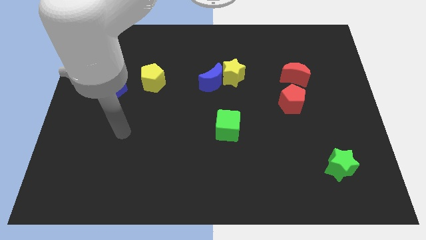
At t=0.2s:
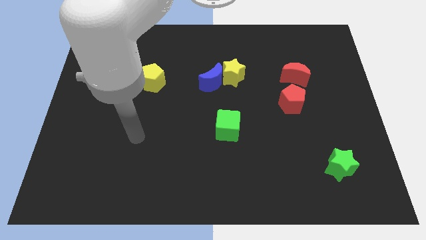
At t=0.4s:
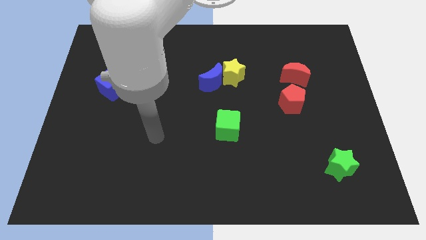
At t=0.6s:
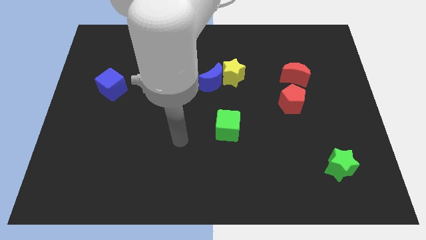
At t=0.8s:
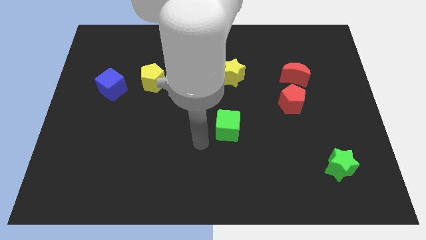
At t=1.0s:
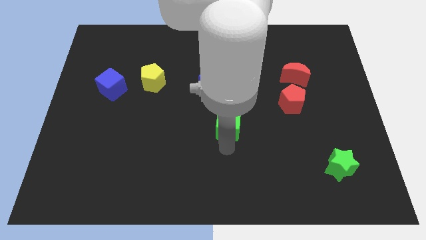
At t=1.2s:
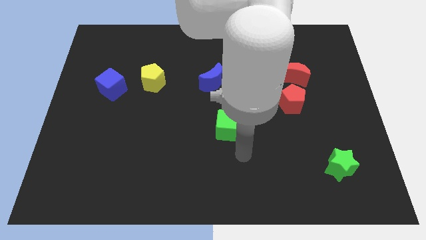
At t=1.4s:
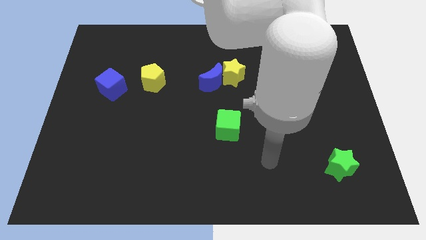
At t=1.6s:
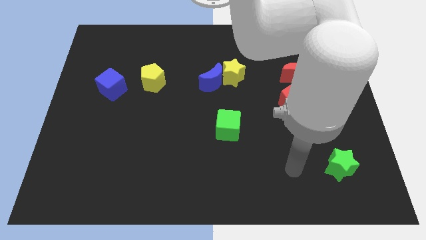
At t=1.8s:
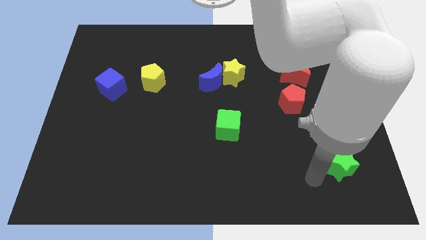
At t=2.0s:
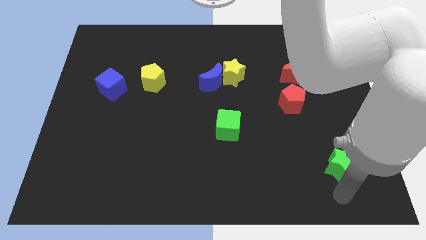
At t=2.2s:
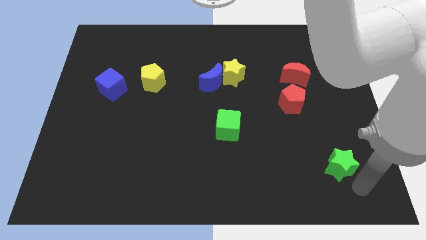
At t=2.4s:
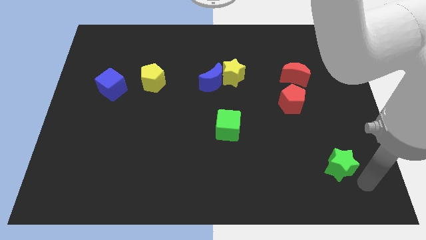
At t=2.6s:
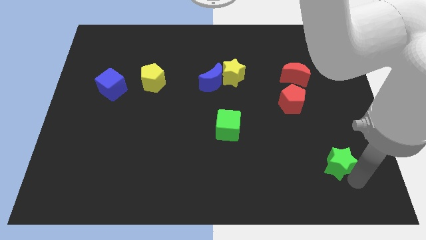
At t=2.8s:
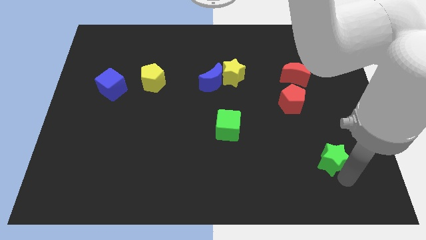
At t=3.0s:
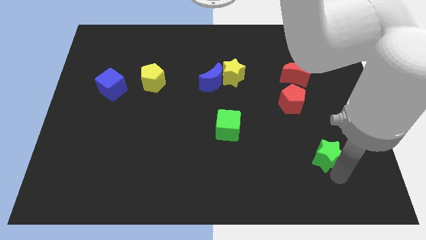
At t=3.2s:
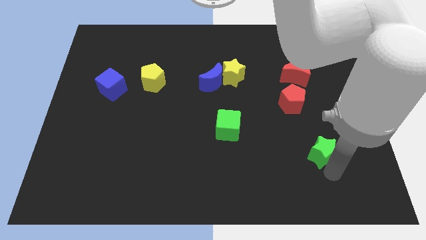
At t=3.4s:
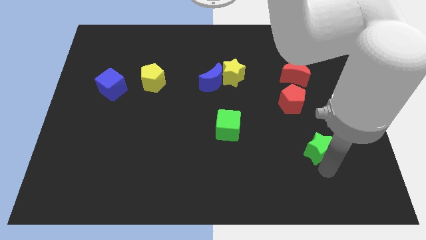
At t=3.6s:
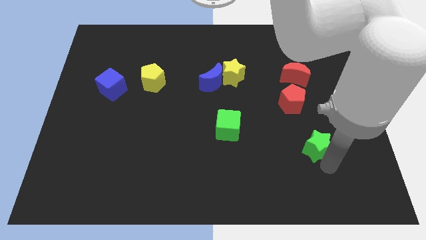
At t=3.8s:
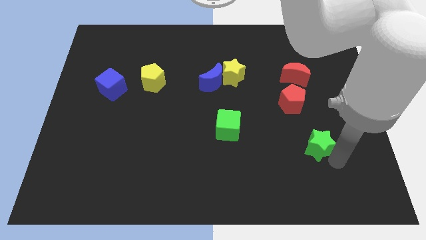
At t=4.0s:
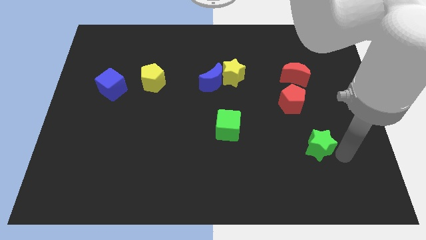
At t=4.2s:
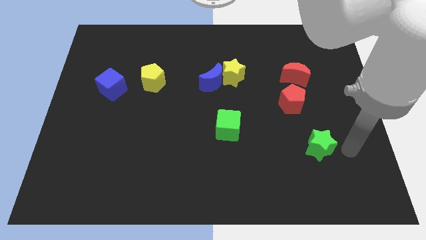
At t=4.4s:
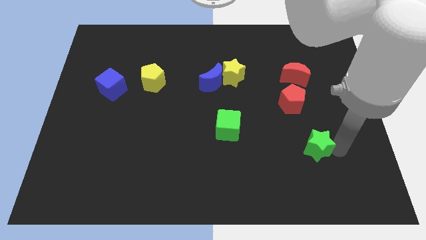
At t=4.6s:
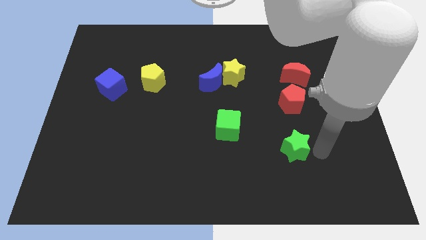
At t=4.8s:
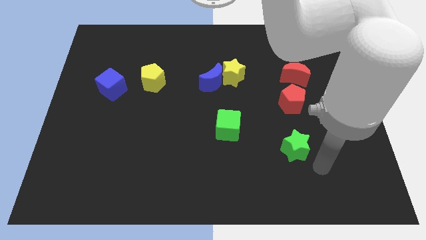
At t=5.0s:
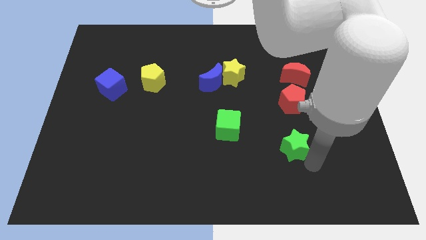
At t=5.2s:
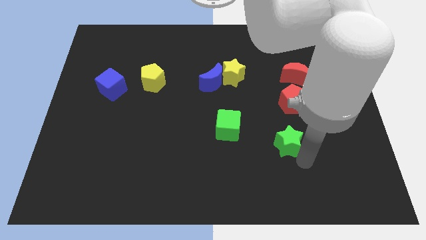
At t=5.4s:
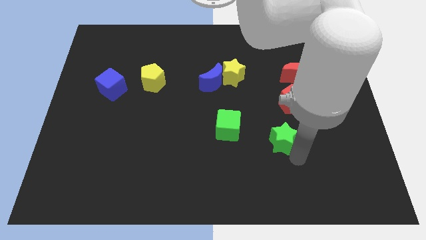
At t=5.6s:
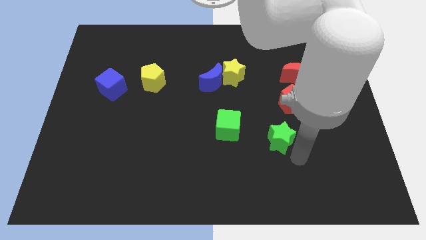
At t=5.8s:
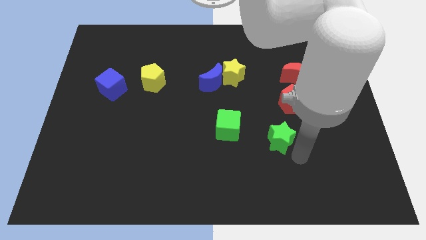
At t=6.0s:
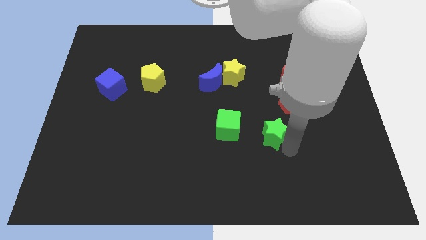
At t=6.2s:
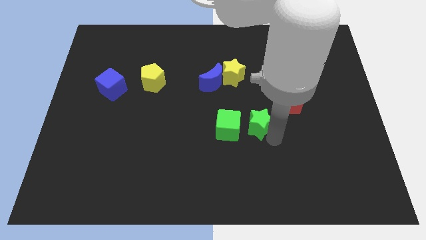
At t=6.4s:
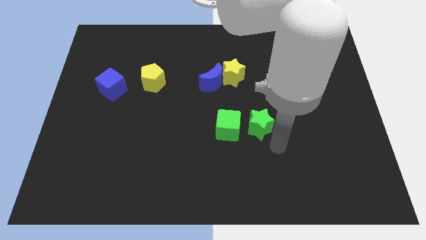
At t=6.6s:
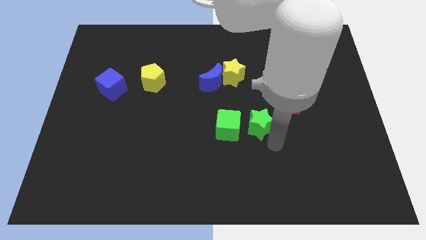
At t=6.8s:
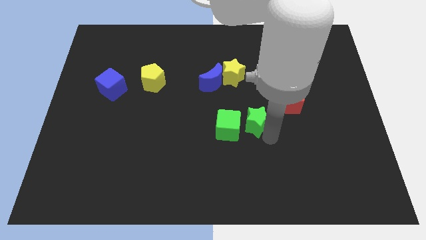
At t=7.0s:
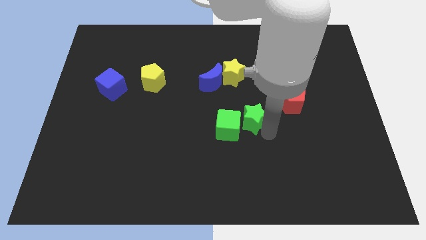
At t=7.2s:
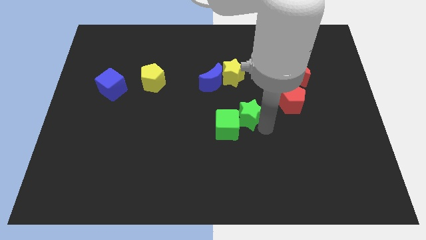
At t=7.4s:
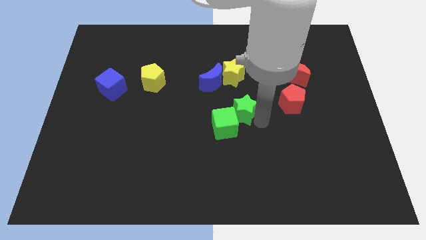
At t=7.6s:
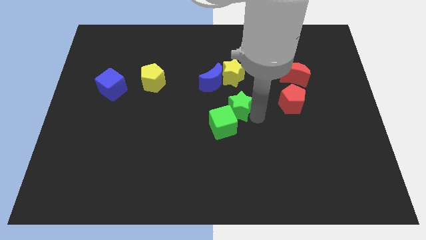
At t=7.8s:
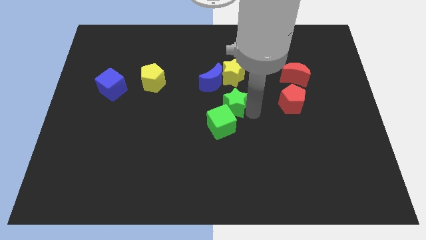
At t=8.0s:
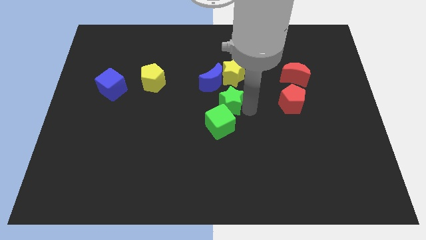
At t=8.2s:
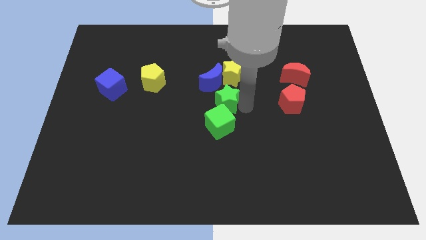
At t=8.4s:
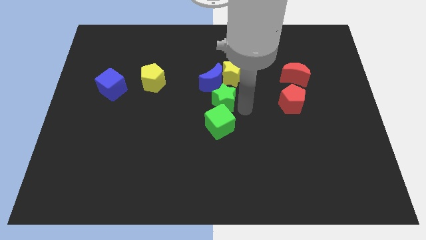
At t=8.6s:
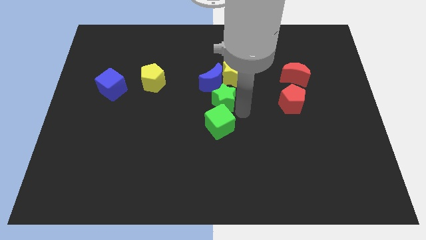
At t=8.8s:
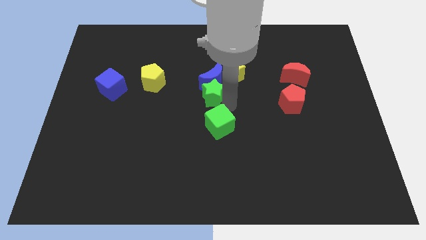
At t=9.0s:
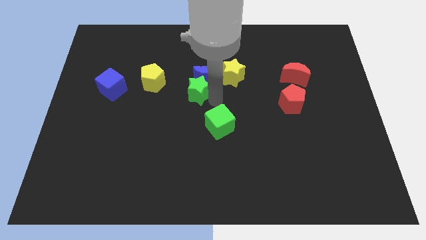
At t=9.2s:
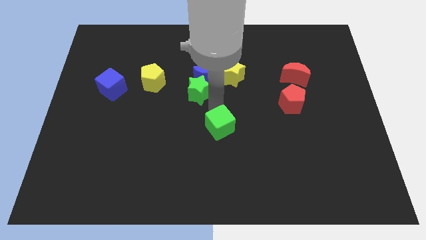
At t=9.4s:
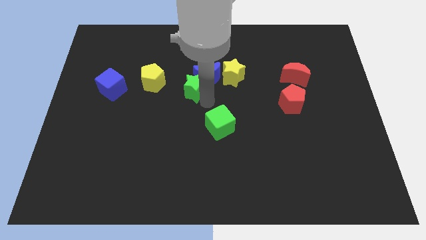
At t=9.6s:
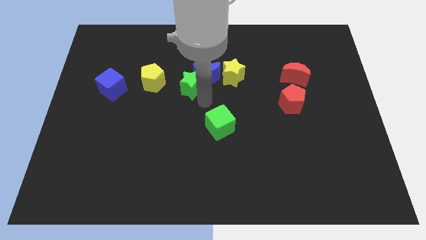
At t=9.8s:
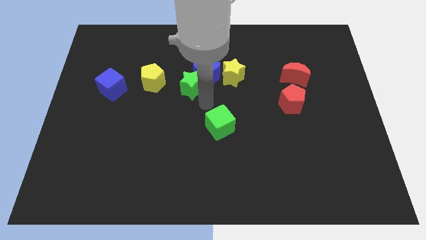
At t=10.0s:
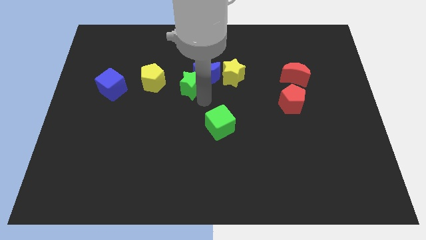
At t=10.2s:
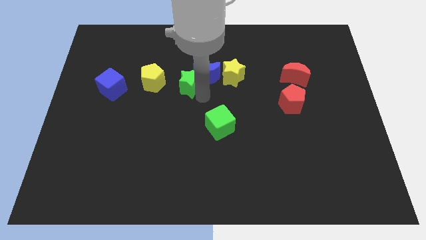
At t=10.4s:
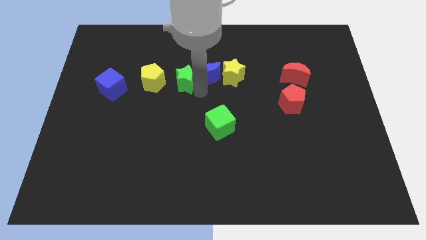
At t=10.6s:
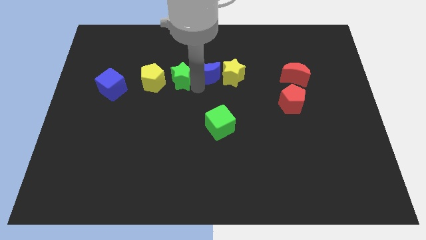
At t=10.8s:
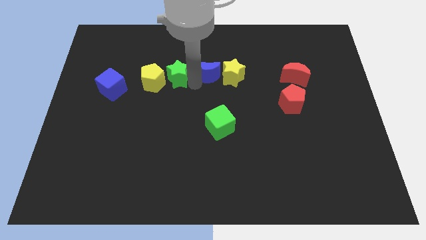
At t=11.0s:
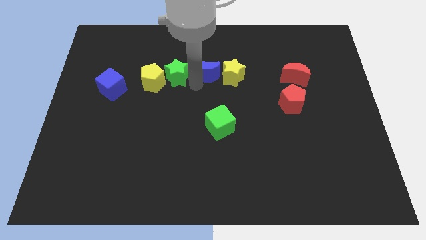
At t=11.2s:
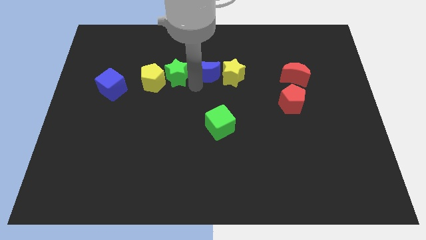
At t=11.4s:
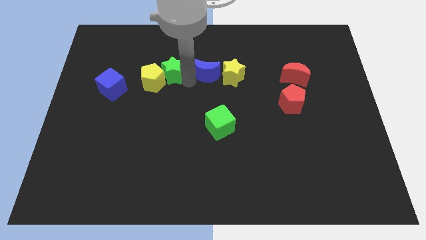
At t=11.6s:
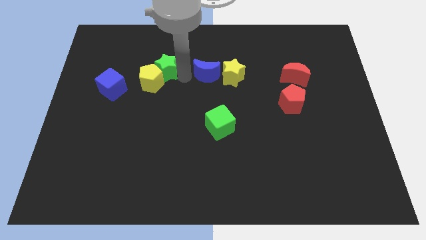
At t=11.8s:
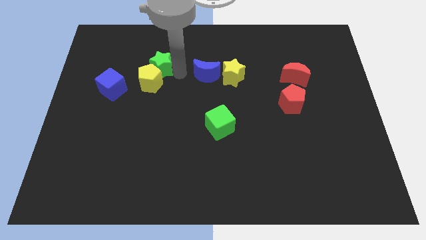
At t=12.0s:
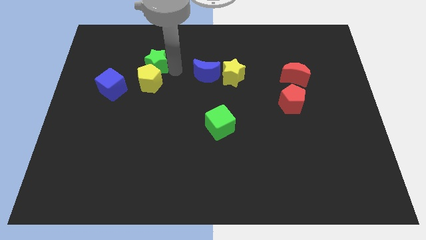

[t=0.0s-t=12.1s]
slide the green star to the top right side of the blue cube

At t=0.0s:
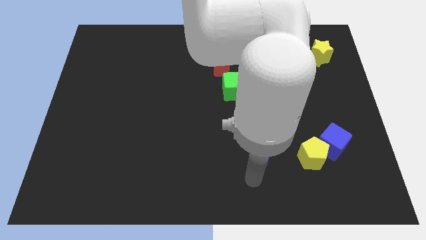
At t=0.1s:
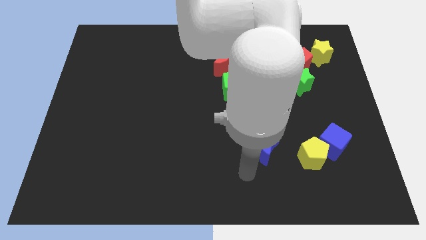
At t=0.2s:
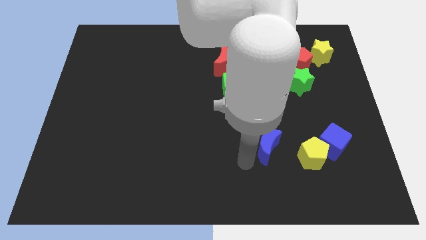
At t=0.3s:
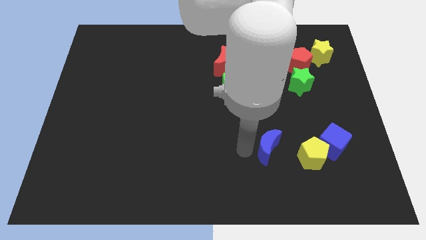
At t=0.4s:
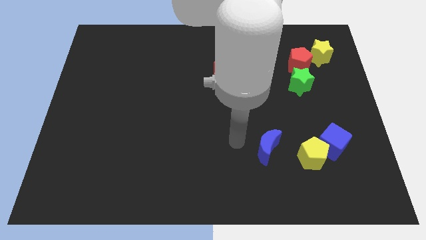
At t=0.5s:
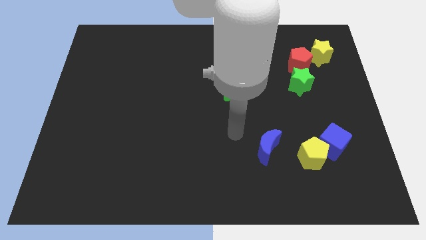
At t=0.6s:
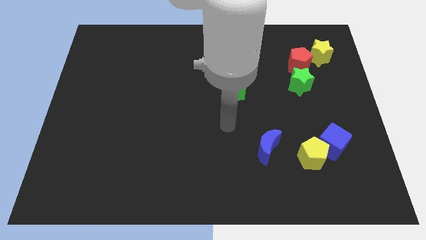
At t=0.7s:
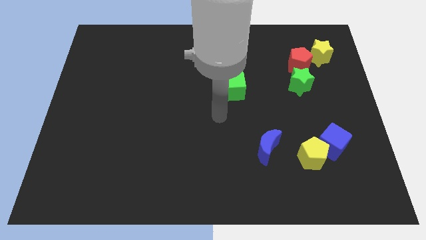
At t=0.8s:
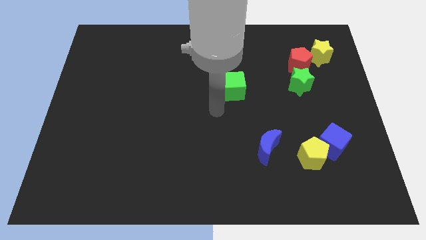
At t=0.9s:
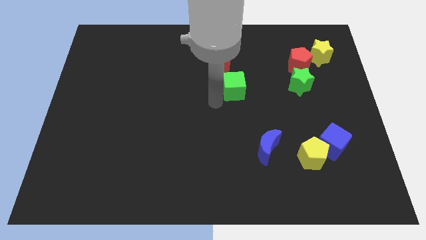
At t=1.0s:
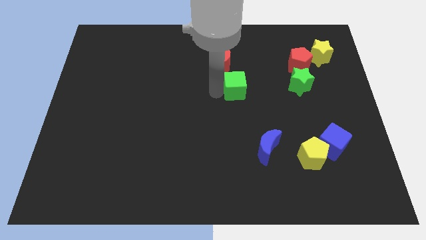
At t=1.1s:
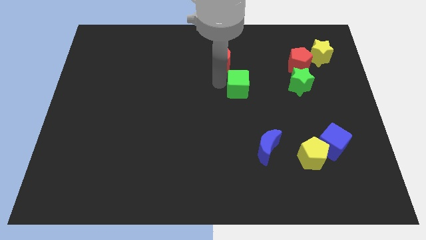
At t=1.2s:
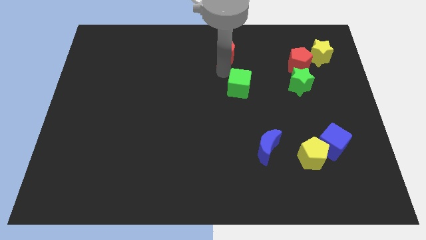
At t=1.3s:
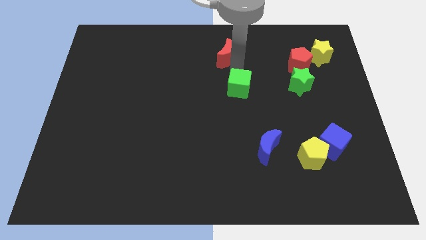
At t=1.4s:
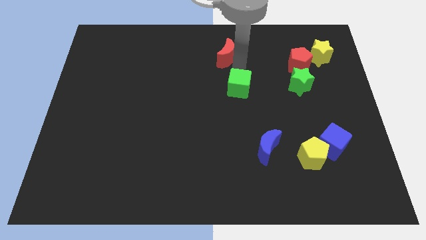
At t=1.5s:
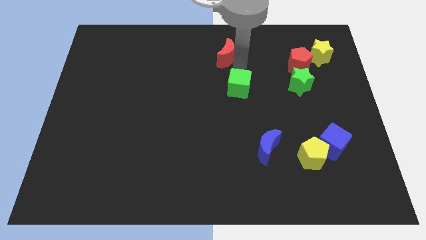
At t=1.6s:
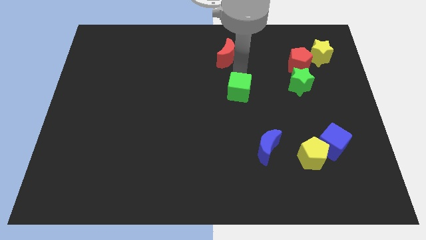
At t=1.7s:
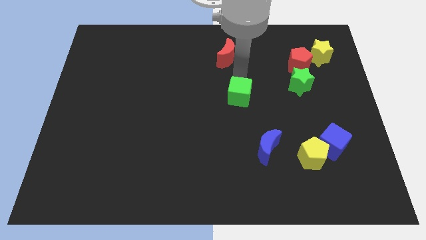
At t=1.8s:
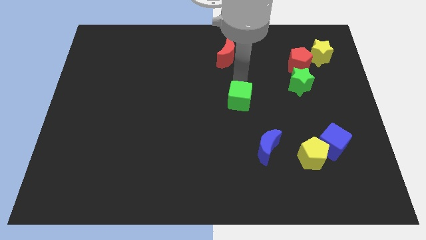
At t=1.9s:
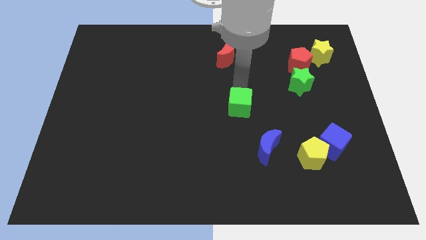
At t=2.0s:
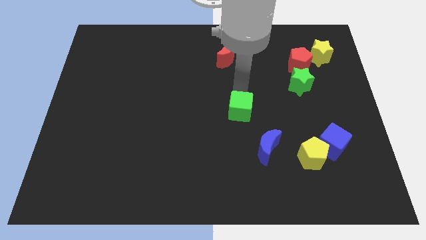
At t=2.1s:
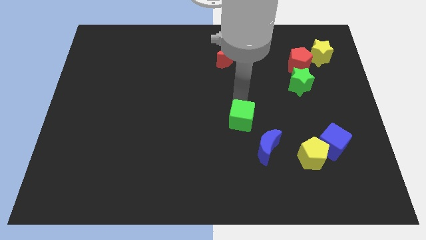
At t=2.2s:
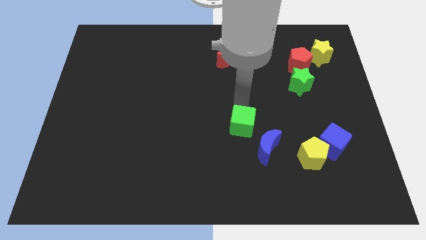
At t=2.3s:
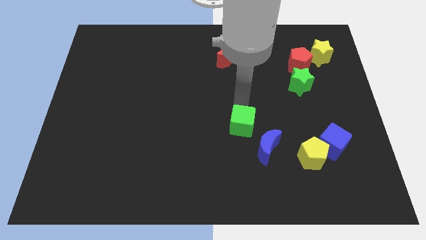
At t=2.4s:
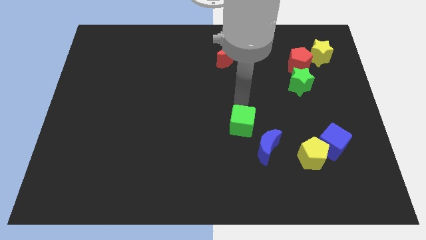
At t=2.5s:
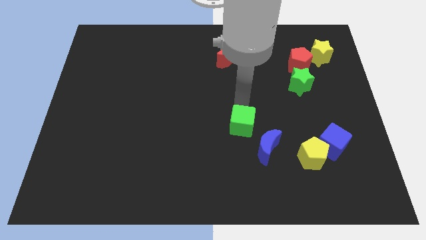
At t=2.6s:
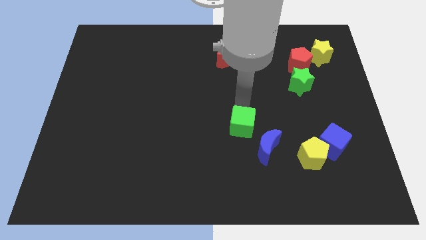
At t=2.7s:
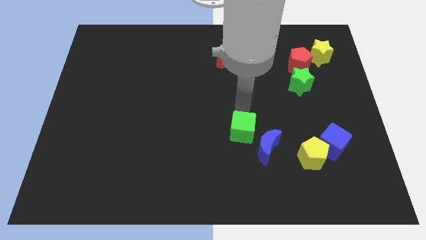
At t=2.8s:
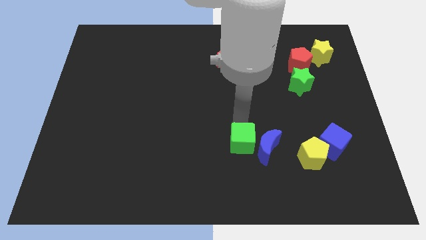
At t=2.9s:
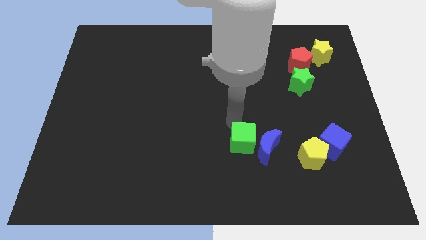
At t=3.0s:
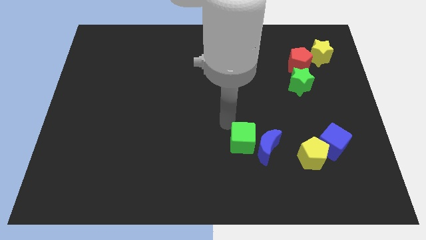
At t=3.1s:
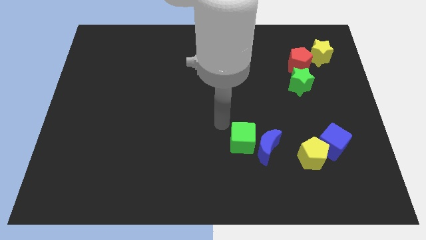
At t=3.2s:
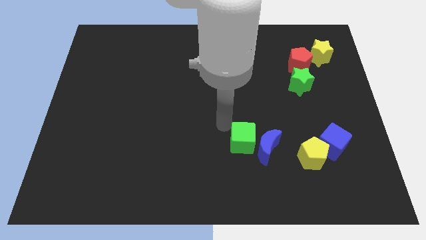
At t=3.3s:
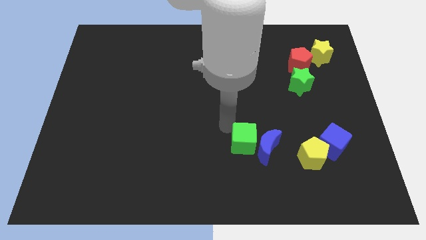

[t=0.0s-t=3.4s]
push the green cube to the left of the yellow pentagon
